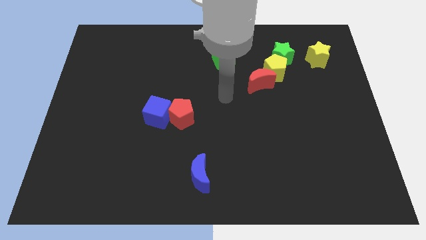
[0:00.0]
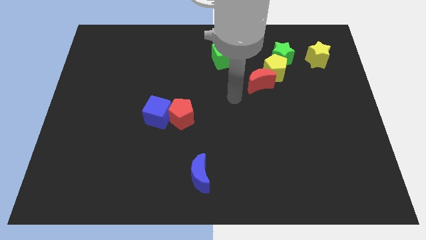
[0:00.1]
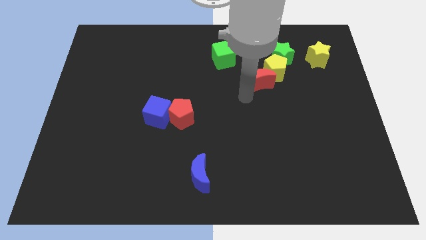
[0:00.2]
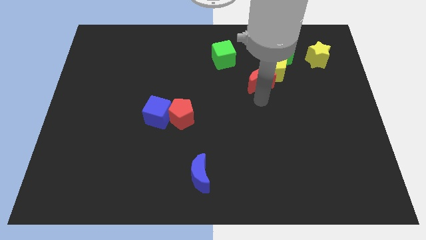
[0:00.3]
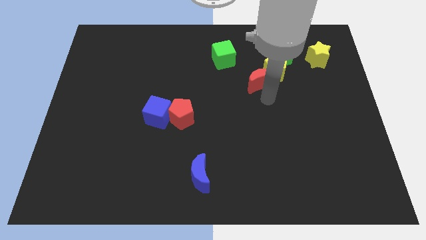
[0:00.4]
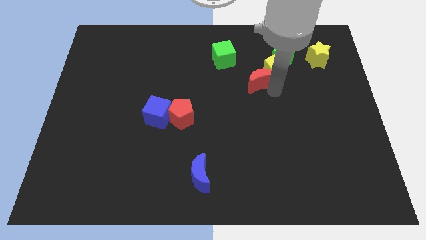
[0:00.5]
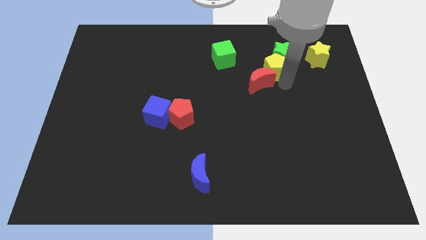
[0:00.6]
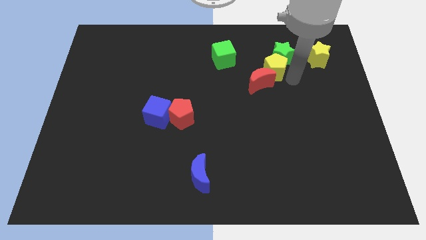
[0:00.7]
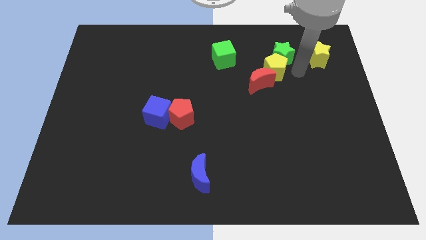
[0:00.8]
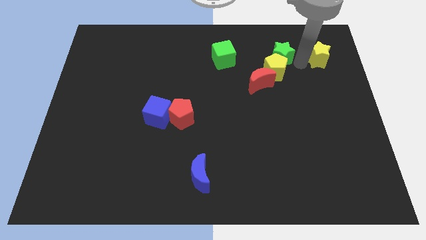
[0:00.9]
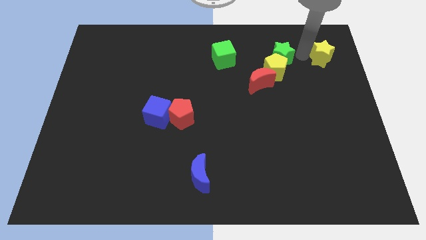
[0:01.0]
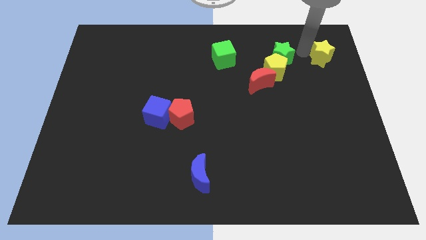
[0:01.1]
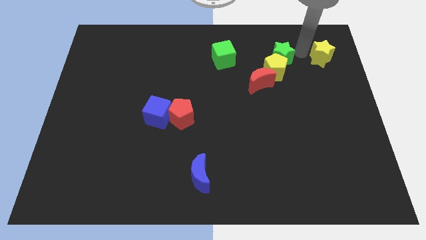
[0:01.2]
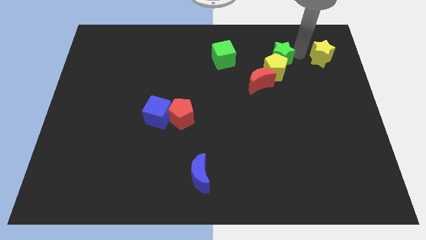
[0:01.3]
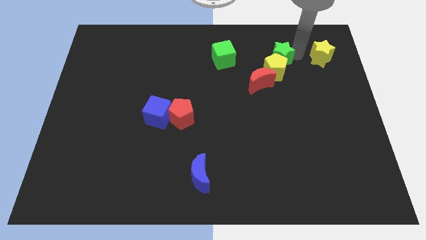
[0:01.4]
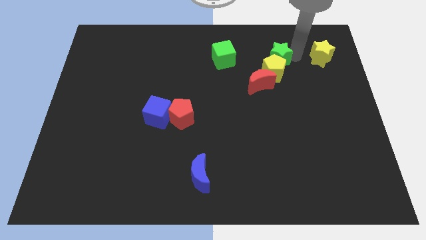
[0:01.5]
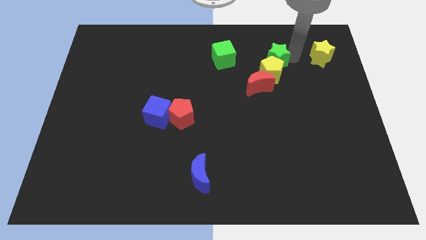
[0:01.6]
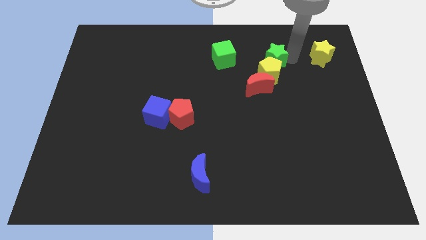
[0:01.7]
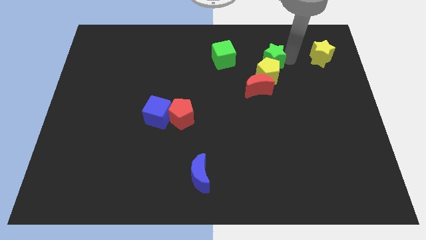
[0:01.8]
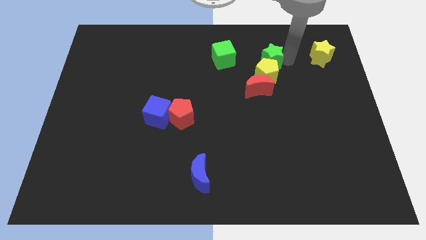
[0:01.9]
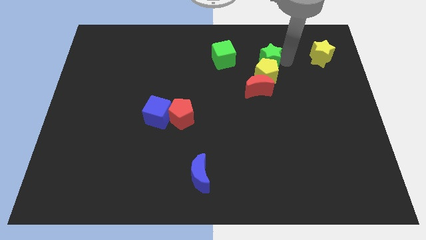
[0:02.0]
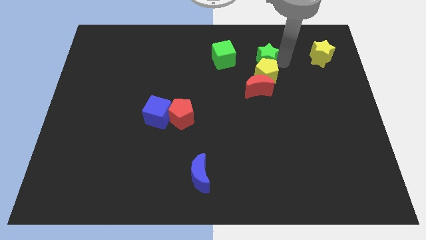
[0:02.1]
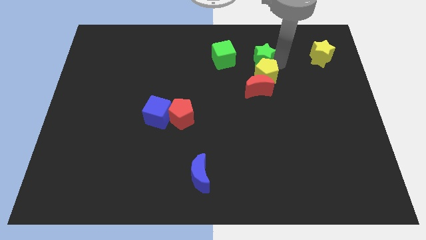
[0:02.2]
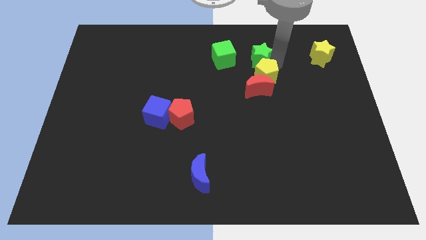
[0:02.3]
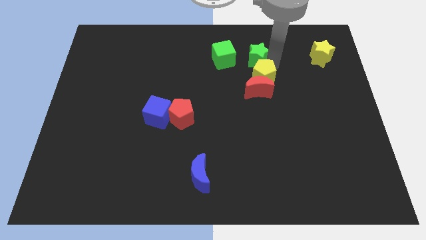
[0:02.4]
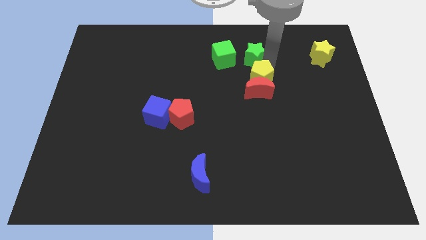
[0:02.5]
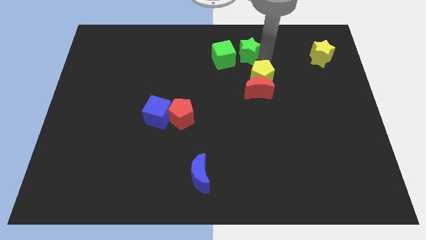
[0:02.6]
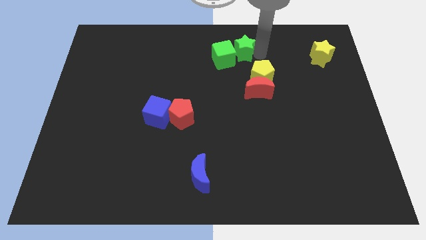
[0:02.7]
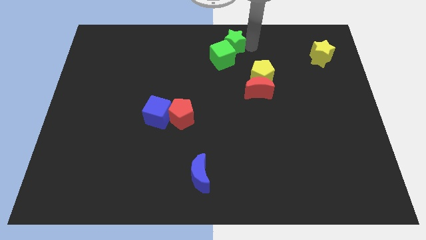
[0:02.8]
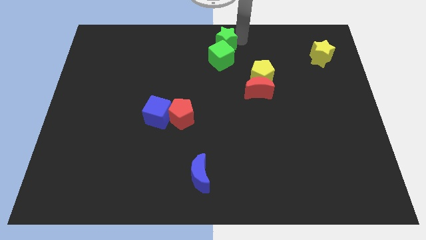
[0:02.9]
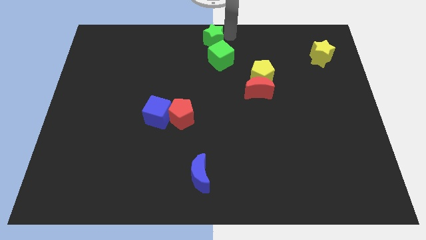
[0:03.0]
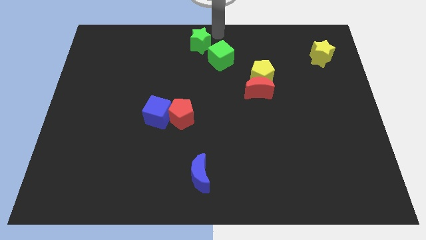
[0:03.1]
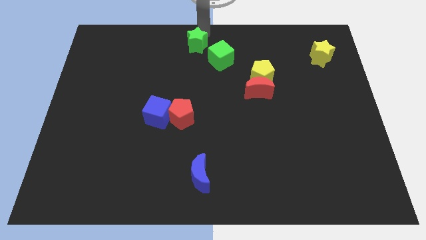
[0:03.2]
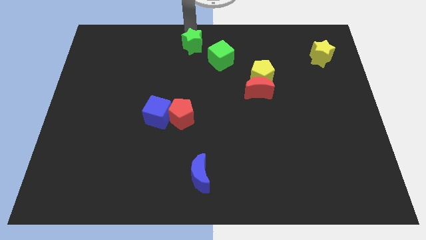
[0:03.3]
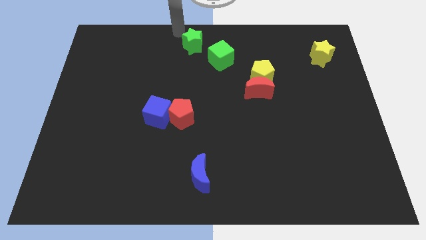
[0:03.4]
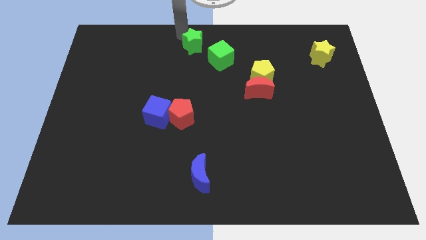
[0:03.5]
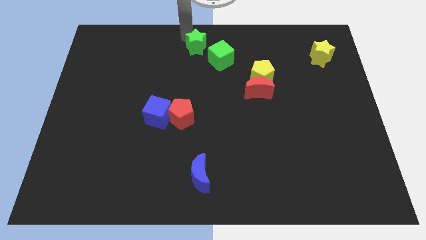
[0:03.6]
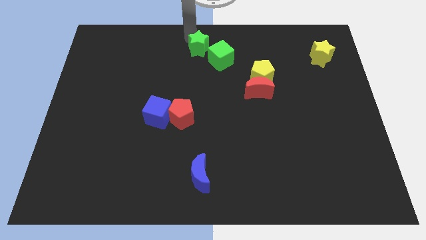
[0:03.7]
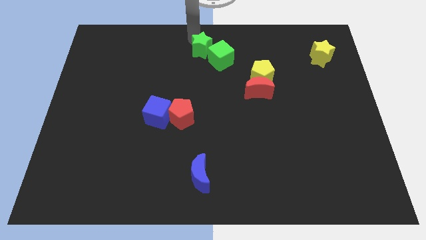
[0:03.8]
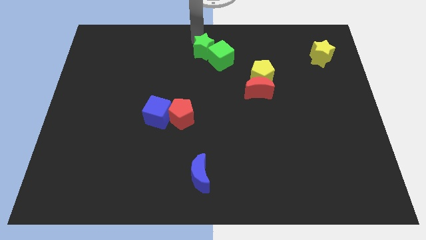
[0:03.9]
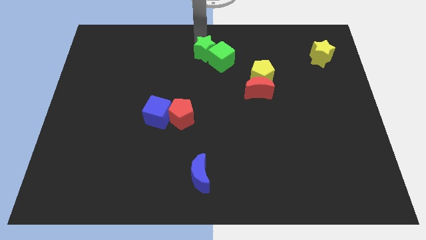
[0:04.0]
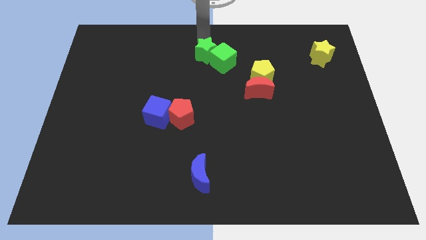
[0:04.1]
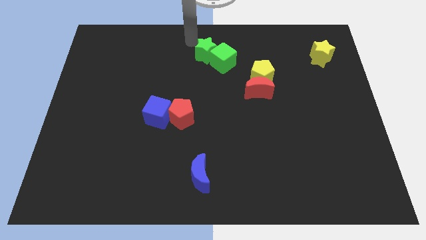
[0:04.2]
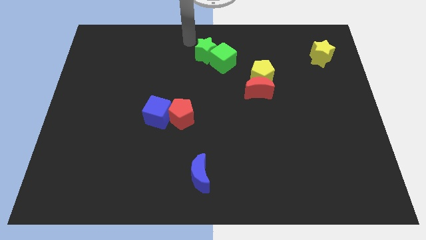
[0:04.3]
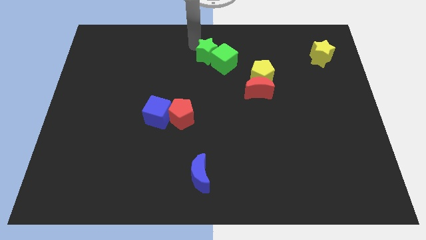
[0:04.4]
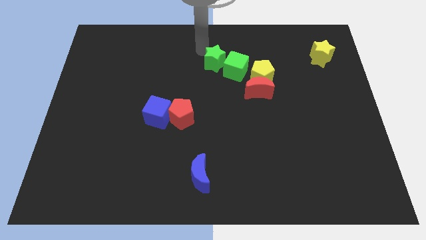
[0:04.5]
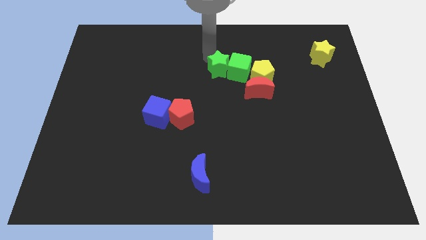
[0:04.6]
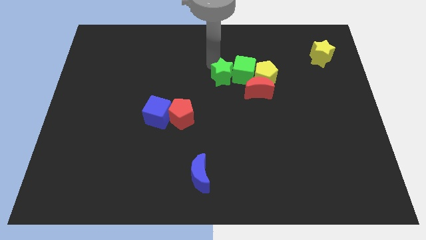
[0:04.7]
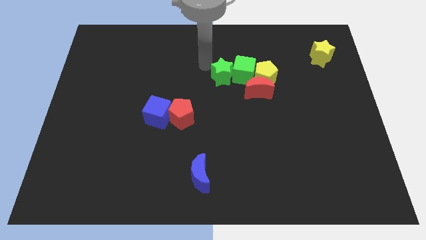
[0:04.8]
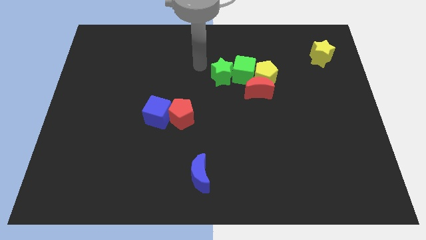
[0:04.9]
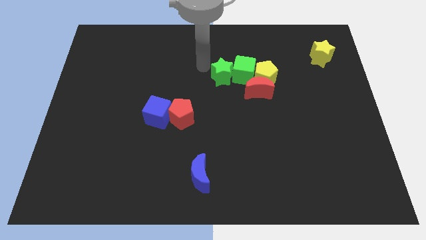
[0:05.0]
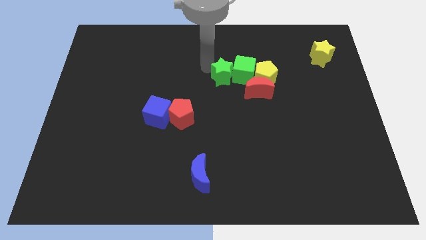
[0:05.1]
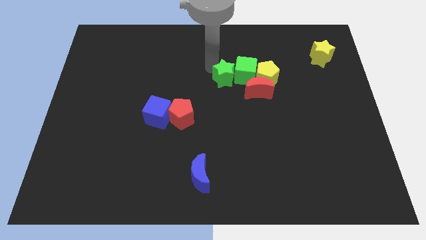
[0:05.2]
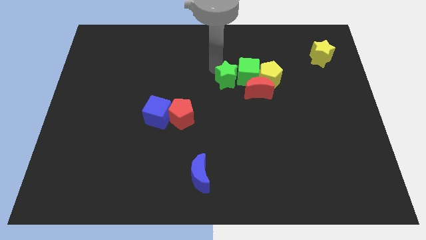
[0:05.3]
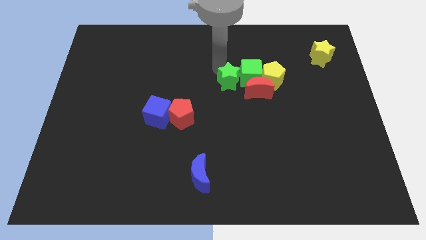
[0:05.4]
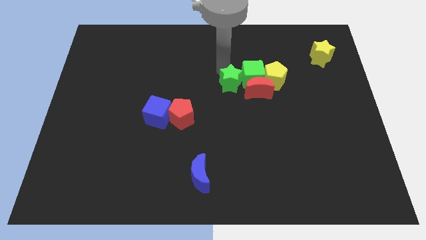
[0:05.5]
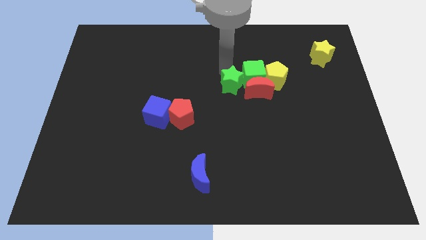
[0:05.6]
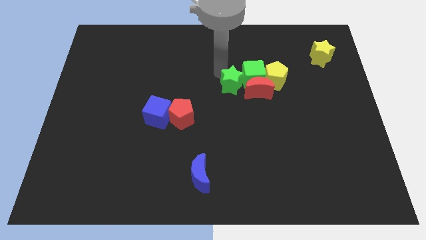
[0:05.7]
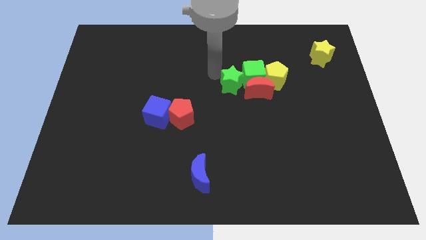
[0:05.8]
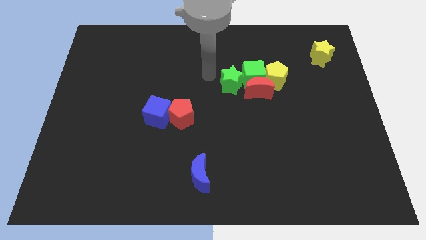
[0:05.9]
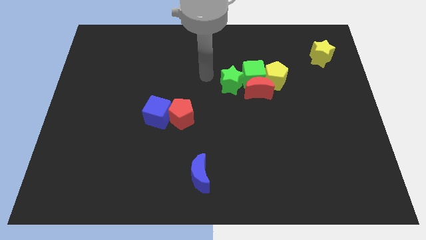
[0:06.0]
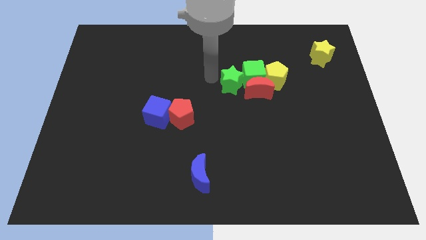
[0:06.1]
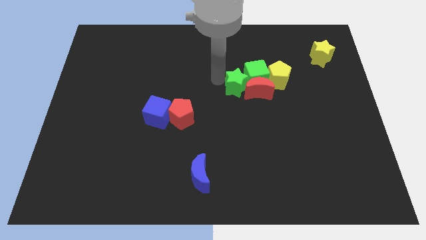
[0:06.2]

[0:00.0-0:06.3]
slide the green star close to the red moon

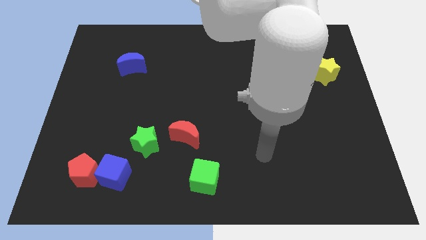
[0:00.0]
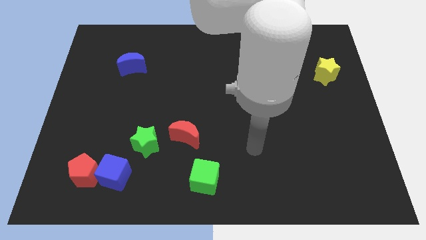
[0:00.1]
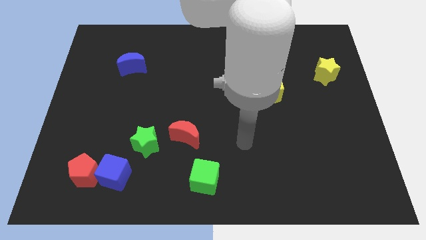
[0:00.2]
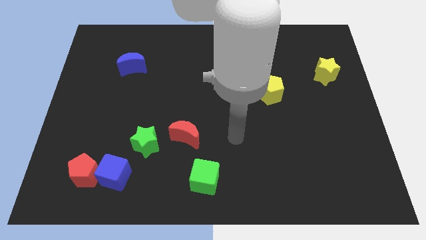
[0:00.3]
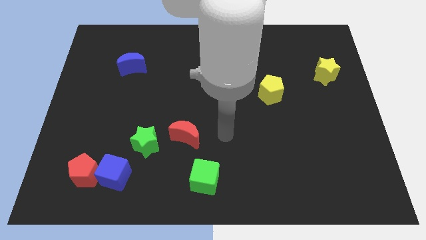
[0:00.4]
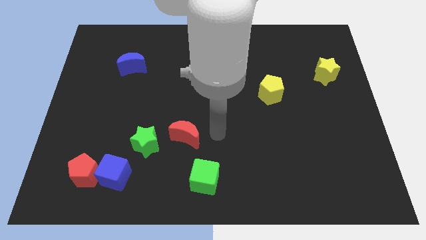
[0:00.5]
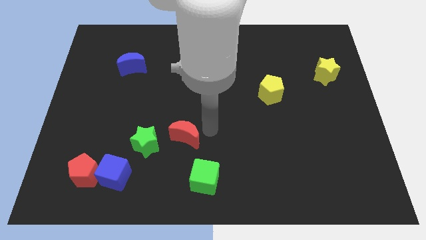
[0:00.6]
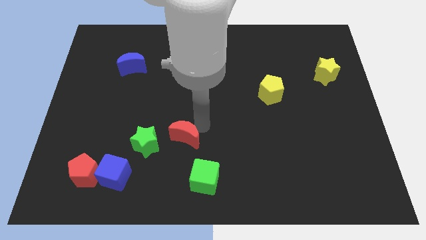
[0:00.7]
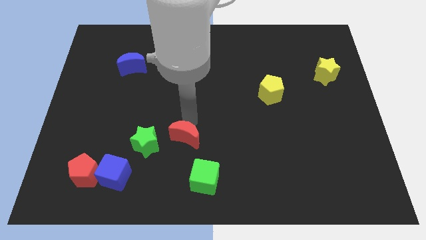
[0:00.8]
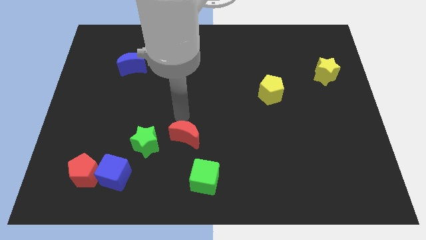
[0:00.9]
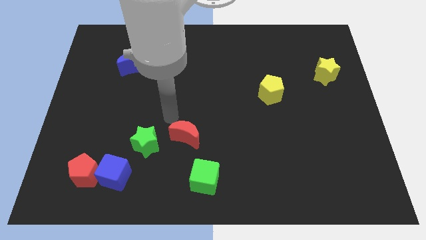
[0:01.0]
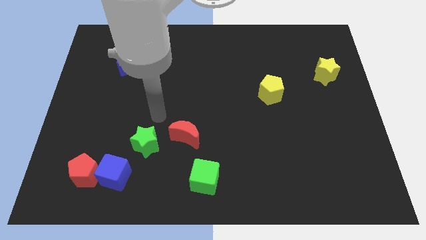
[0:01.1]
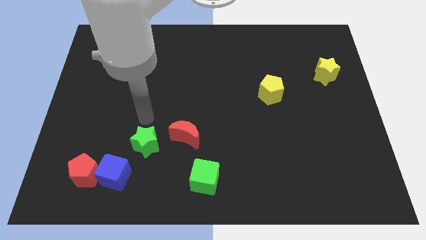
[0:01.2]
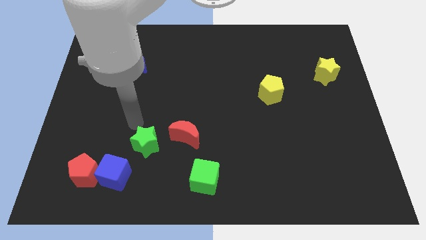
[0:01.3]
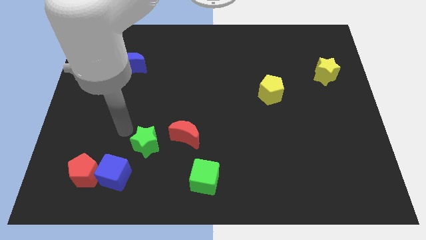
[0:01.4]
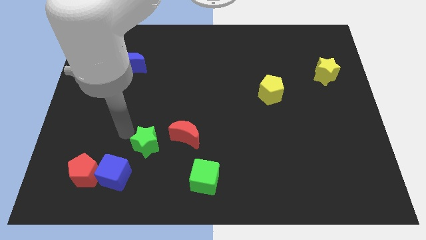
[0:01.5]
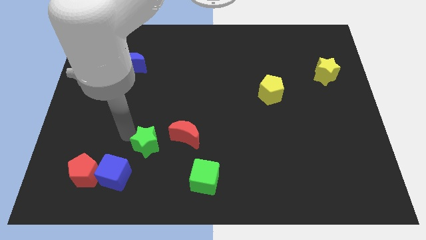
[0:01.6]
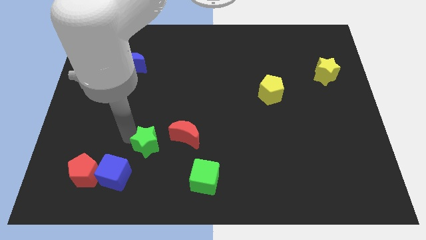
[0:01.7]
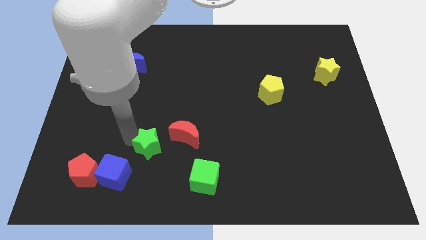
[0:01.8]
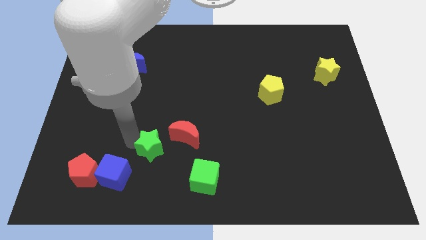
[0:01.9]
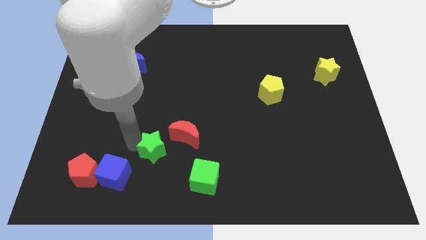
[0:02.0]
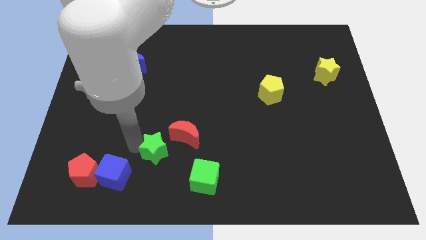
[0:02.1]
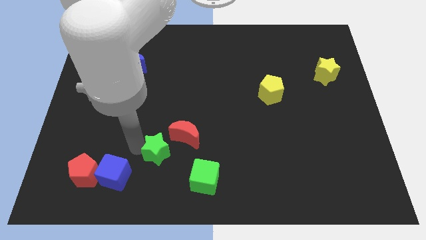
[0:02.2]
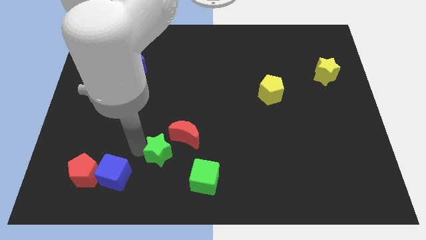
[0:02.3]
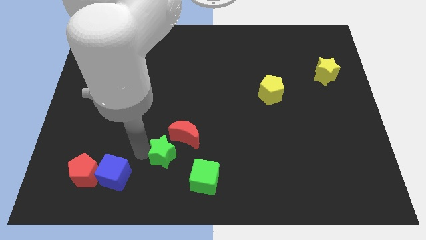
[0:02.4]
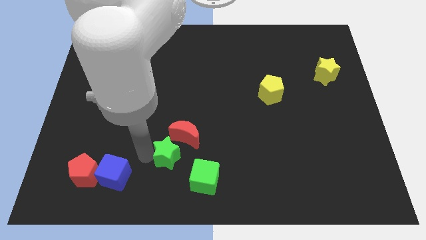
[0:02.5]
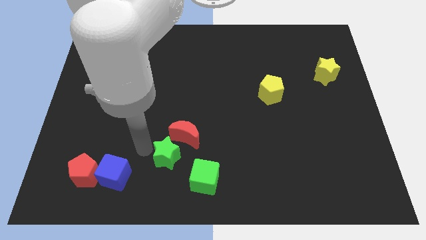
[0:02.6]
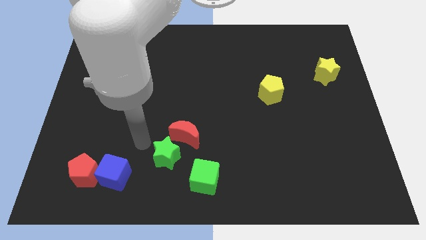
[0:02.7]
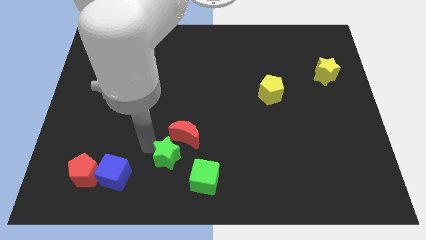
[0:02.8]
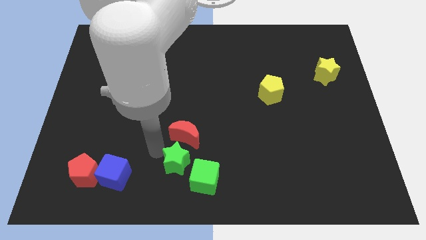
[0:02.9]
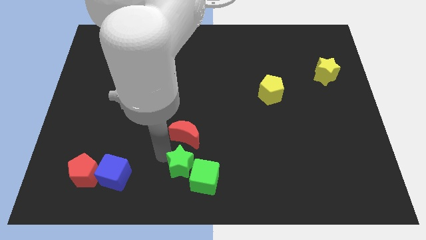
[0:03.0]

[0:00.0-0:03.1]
put the green star to the green cube
